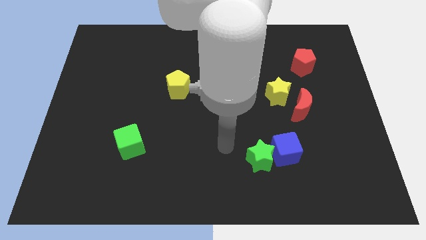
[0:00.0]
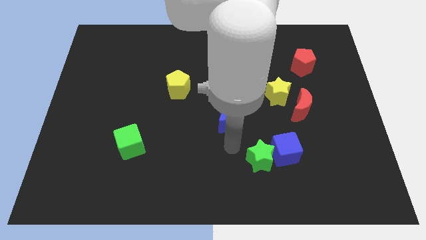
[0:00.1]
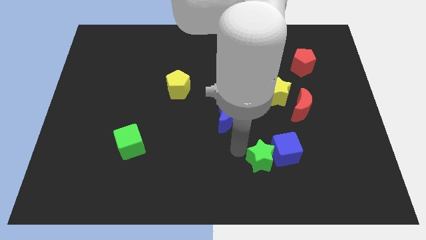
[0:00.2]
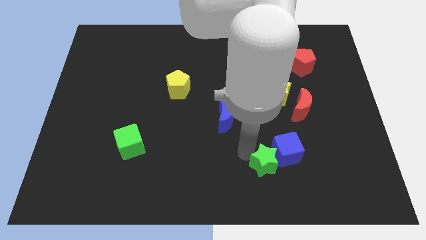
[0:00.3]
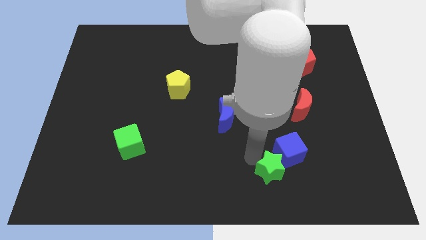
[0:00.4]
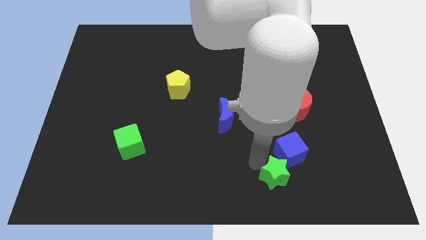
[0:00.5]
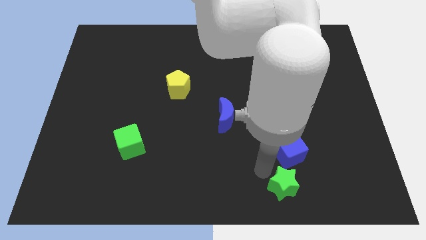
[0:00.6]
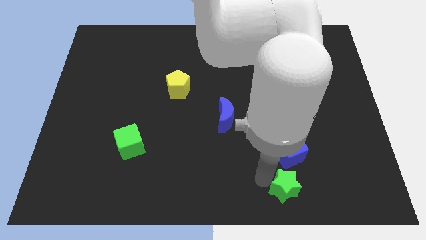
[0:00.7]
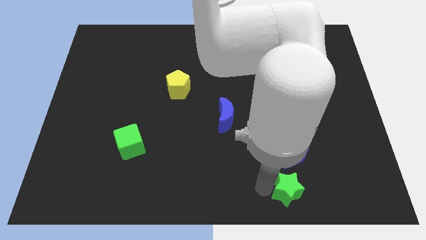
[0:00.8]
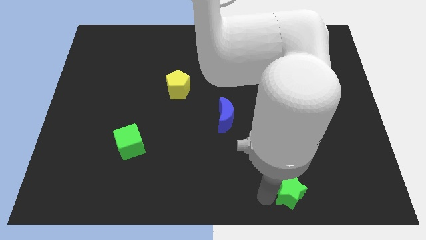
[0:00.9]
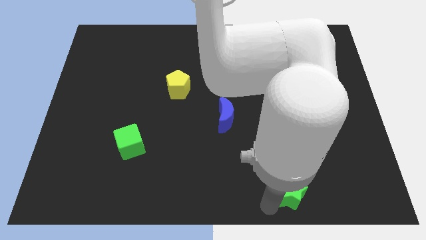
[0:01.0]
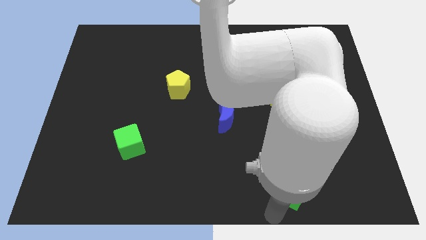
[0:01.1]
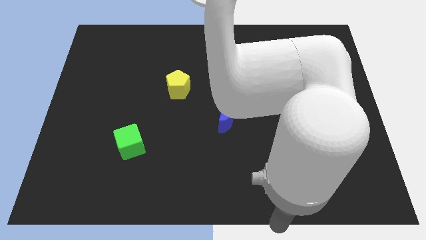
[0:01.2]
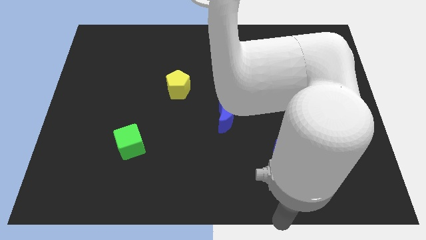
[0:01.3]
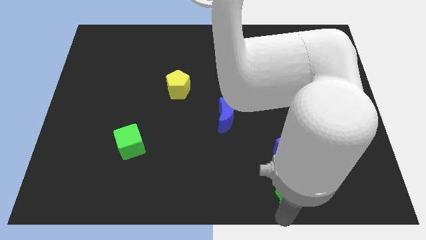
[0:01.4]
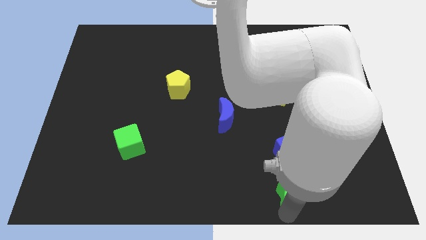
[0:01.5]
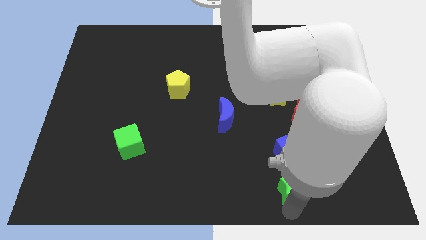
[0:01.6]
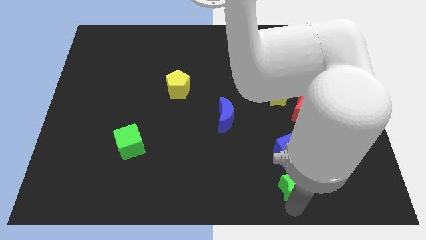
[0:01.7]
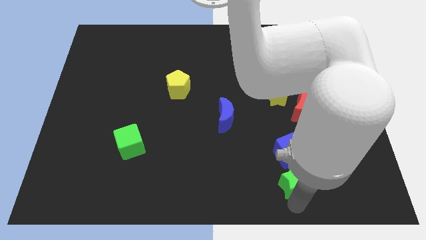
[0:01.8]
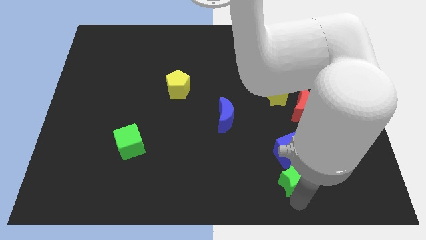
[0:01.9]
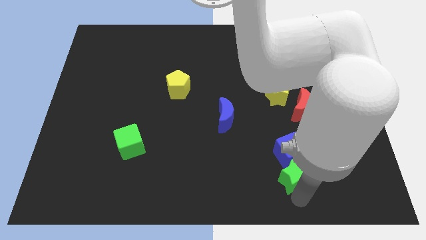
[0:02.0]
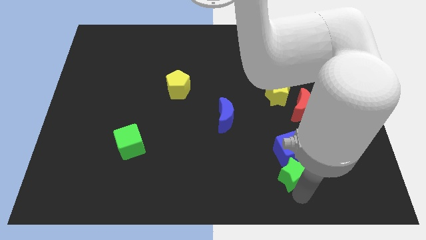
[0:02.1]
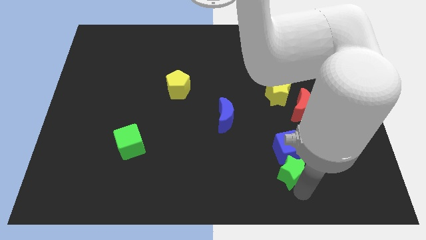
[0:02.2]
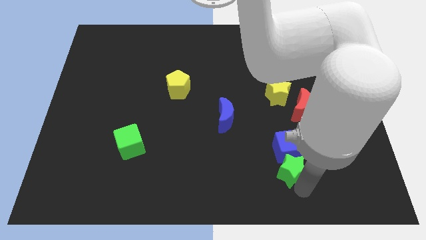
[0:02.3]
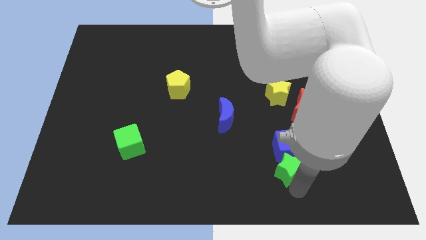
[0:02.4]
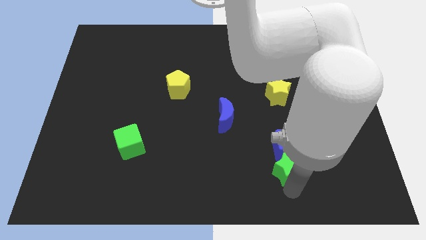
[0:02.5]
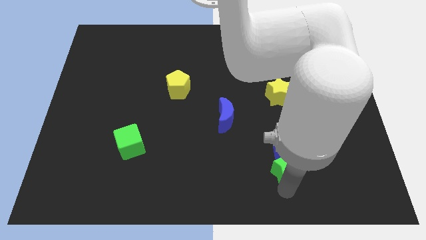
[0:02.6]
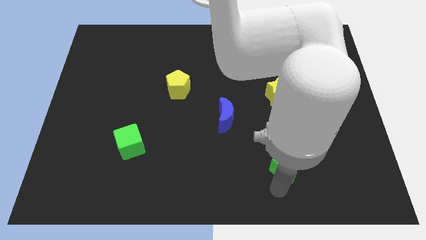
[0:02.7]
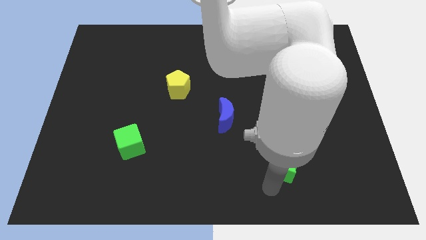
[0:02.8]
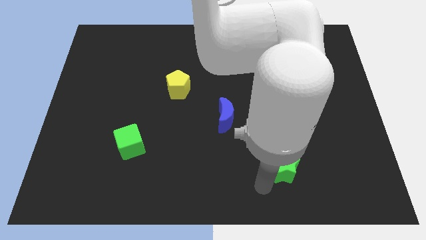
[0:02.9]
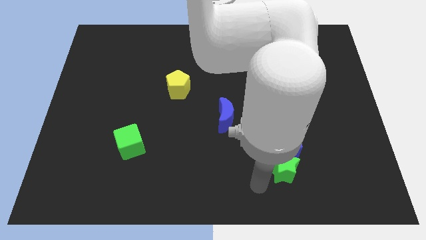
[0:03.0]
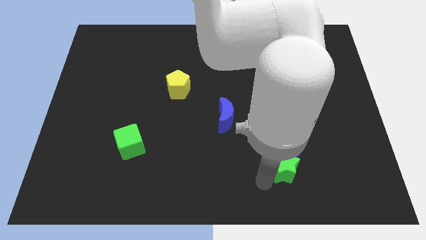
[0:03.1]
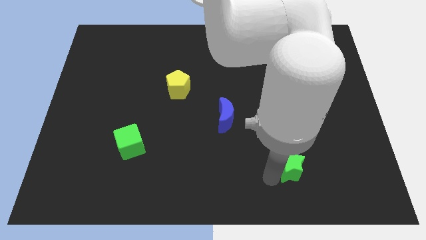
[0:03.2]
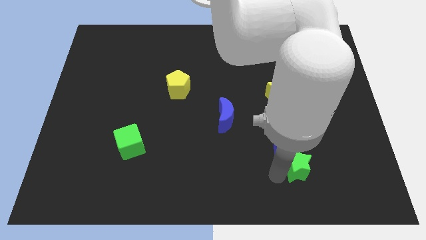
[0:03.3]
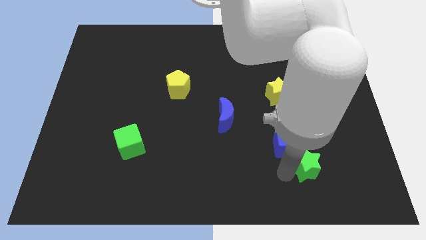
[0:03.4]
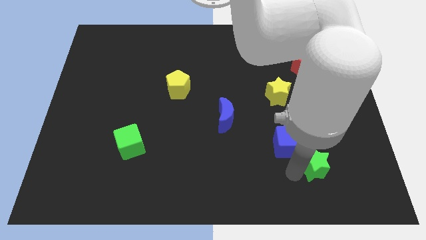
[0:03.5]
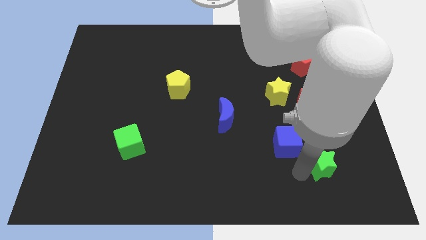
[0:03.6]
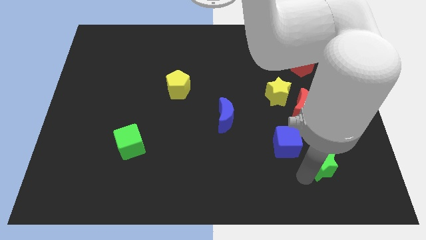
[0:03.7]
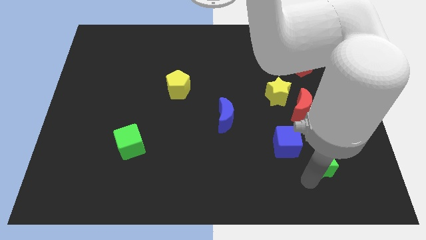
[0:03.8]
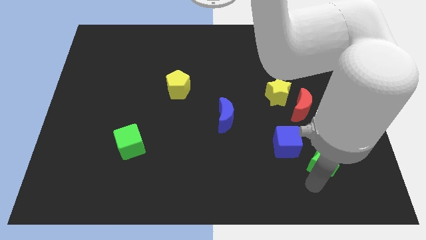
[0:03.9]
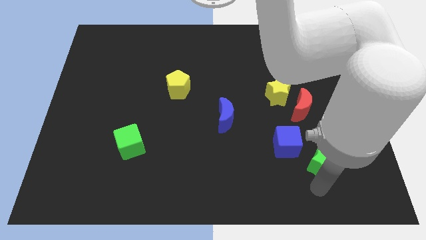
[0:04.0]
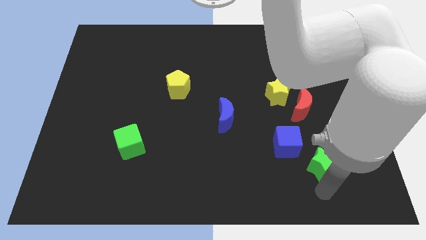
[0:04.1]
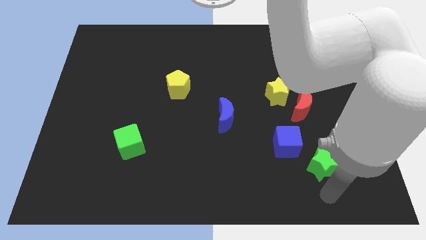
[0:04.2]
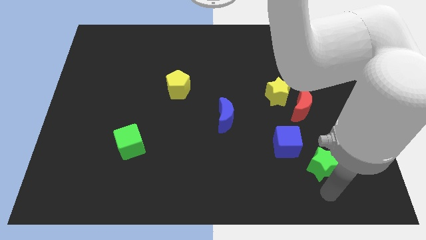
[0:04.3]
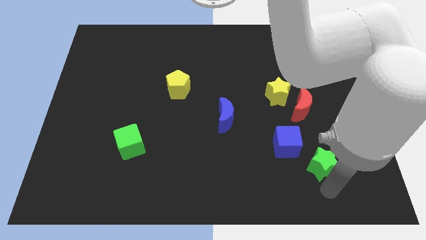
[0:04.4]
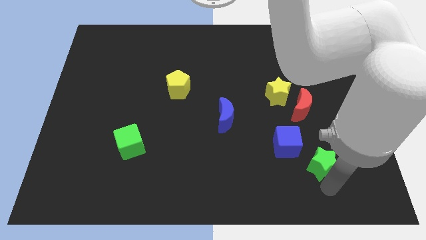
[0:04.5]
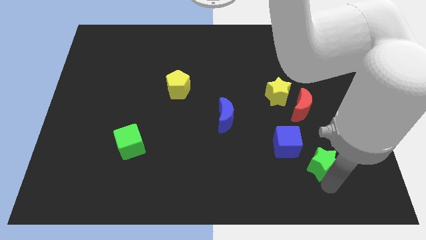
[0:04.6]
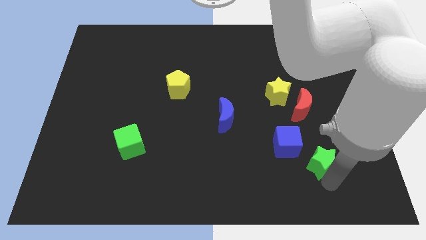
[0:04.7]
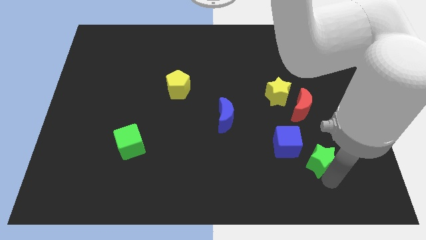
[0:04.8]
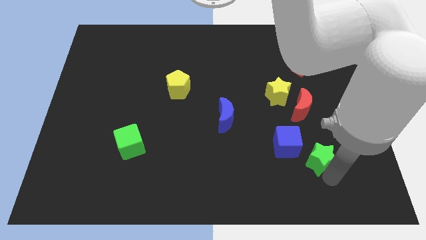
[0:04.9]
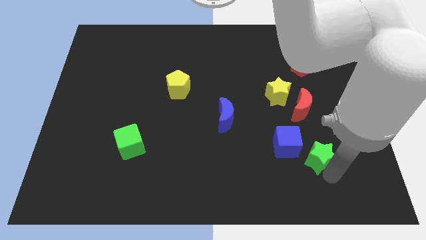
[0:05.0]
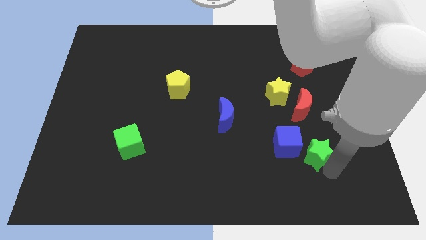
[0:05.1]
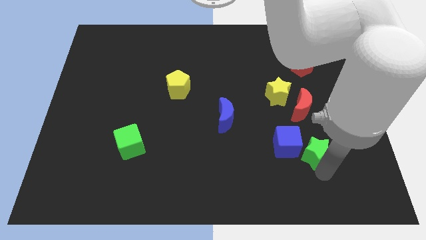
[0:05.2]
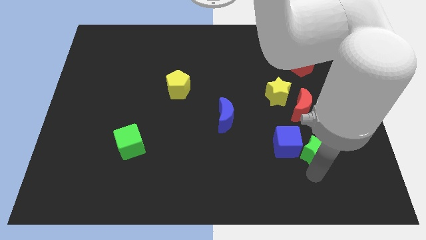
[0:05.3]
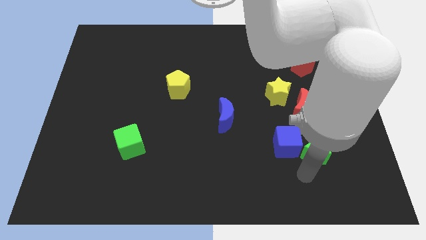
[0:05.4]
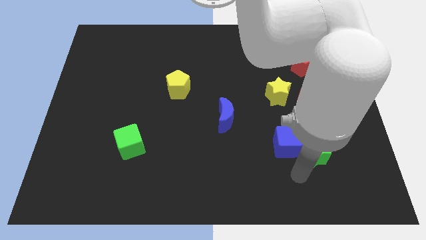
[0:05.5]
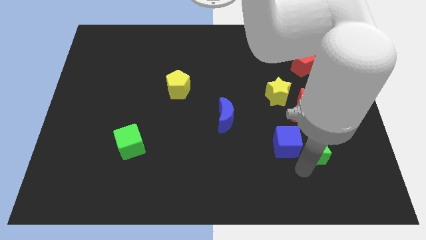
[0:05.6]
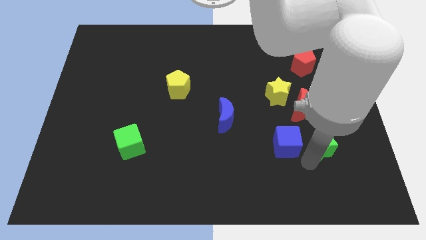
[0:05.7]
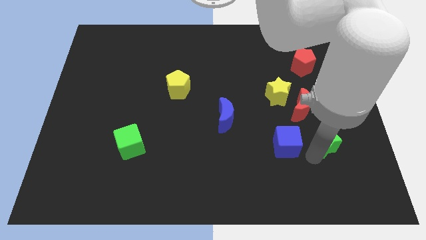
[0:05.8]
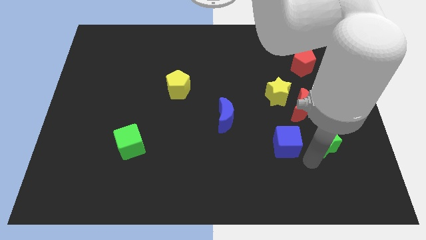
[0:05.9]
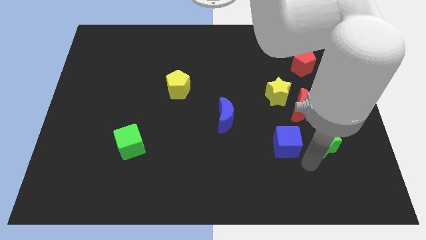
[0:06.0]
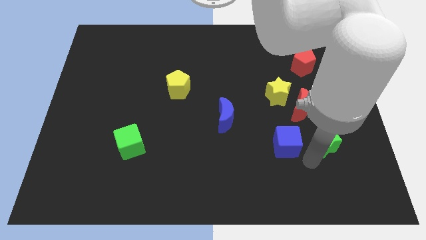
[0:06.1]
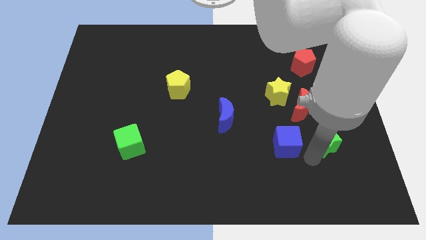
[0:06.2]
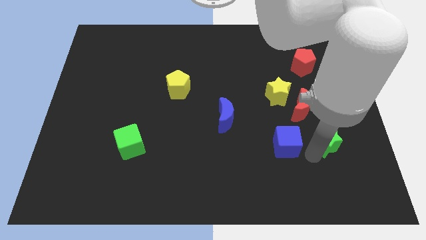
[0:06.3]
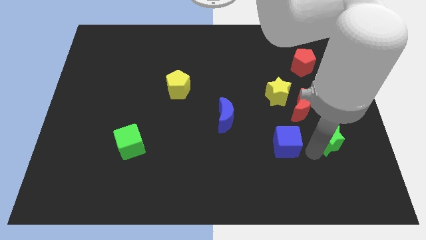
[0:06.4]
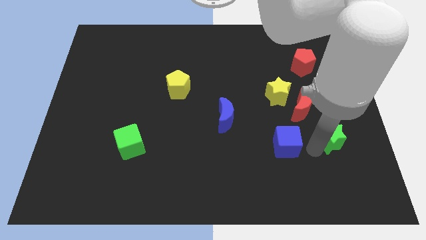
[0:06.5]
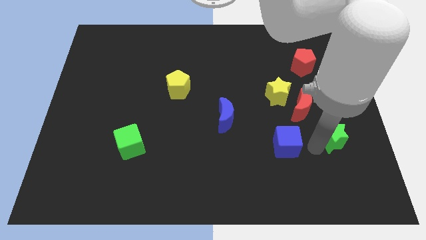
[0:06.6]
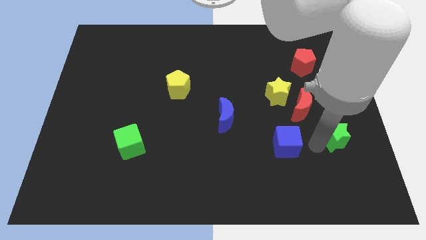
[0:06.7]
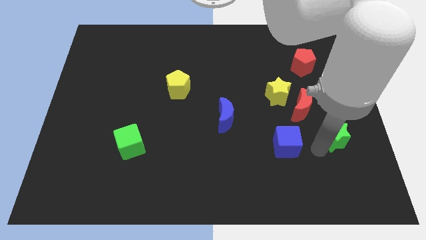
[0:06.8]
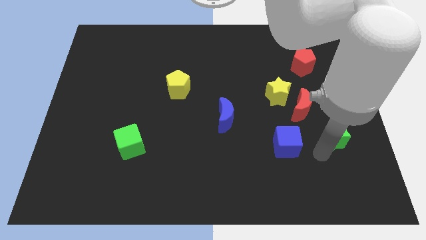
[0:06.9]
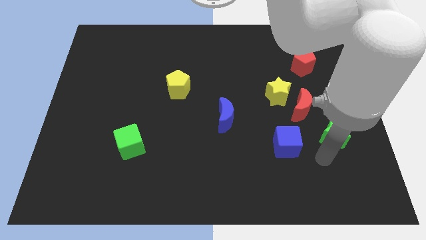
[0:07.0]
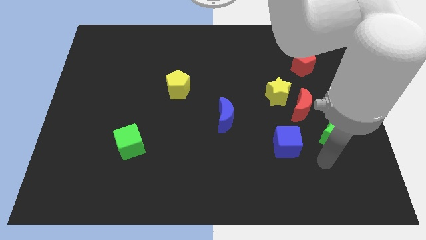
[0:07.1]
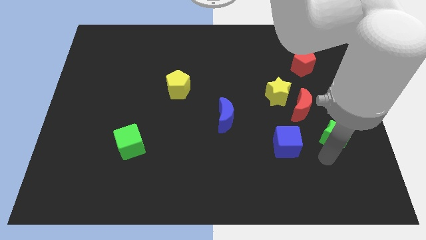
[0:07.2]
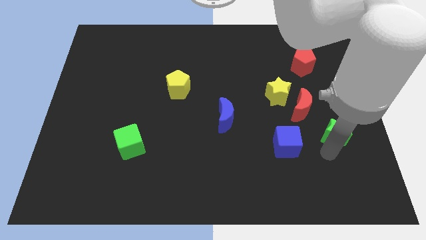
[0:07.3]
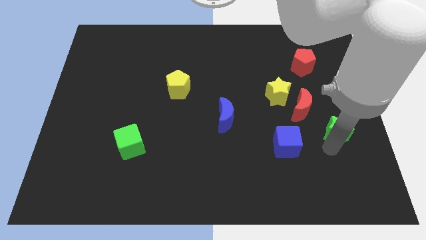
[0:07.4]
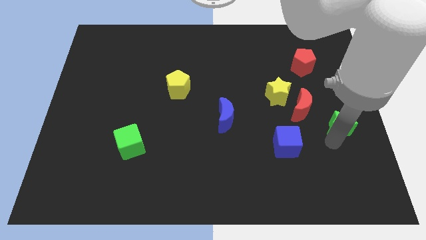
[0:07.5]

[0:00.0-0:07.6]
slide the green star to the center right
